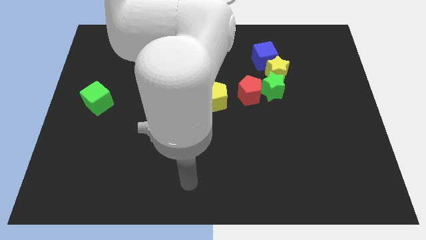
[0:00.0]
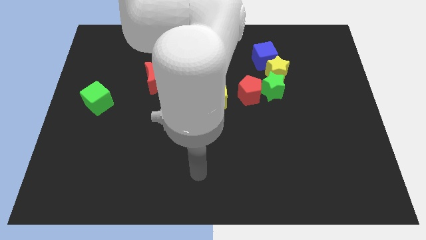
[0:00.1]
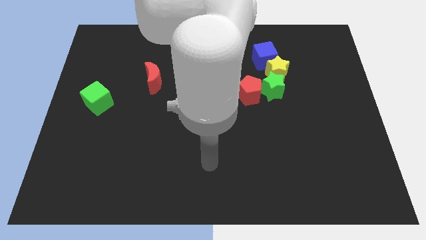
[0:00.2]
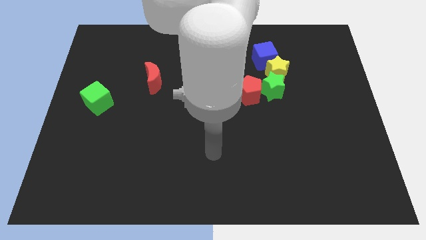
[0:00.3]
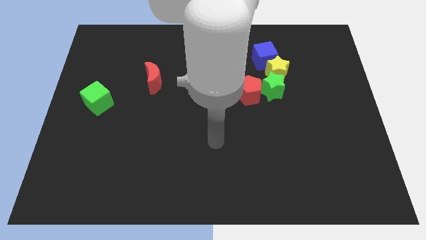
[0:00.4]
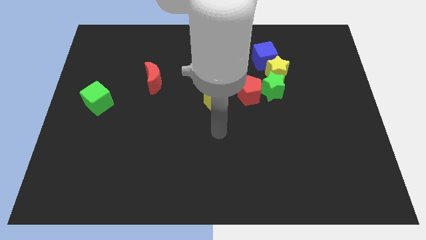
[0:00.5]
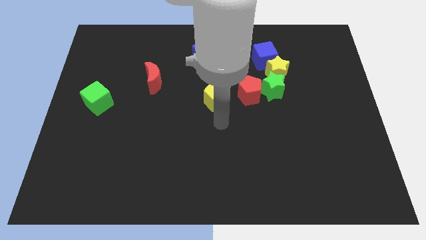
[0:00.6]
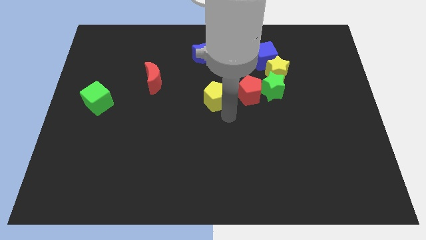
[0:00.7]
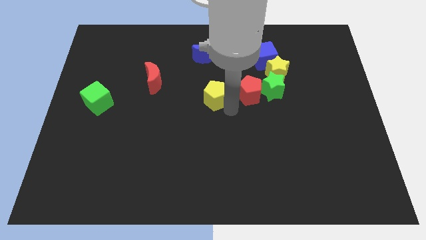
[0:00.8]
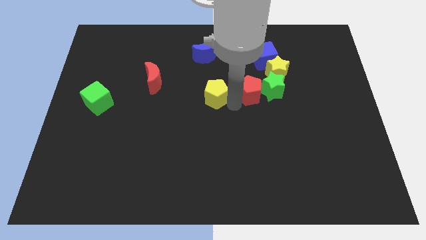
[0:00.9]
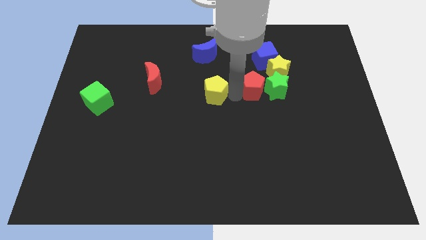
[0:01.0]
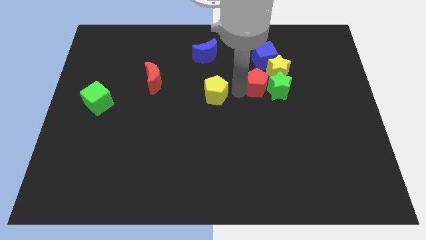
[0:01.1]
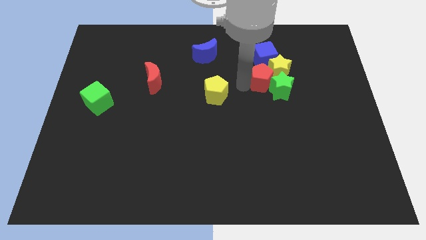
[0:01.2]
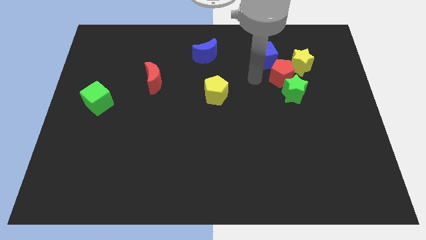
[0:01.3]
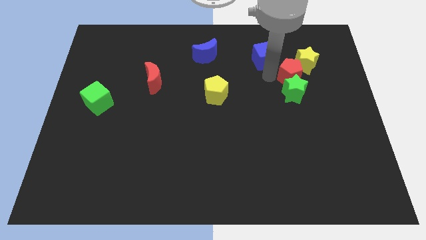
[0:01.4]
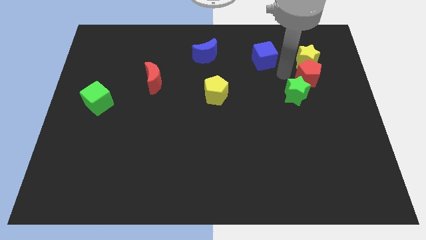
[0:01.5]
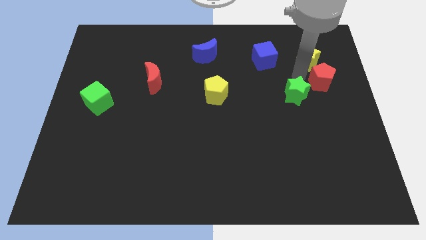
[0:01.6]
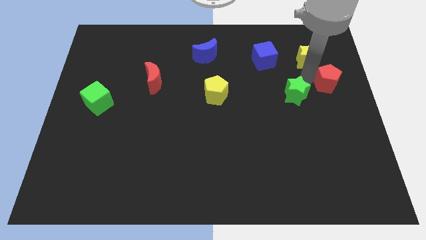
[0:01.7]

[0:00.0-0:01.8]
separate the green star from the red pentagon and yellow star

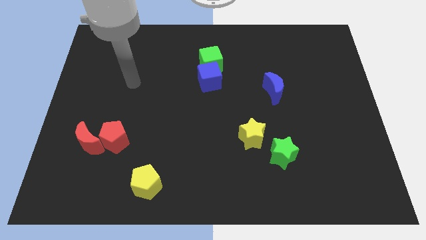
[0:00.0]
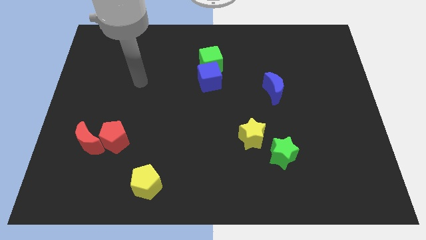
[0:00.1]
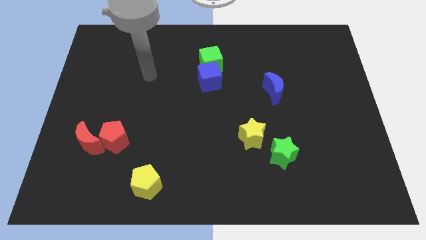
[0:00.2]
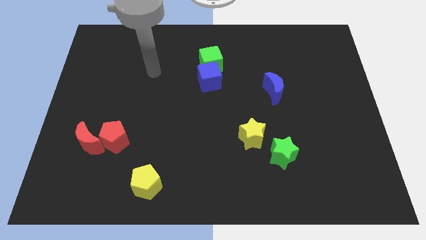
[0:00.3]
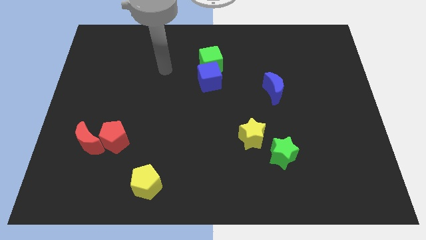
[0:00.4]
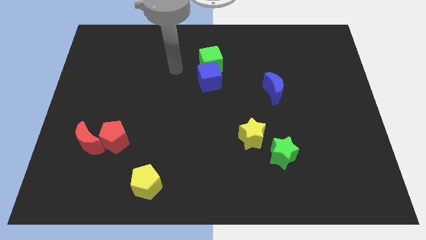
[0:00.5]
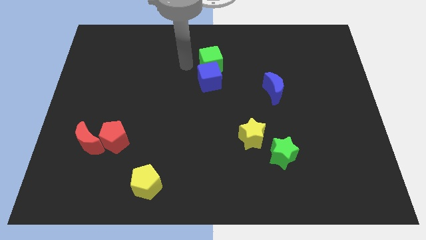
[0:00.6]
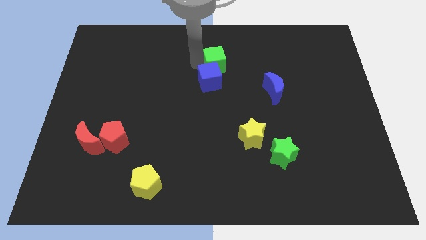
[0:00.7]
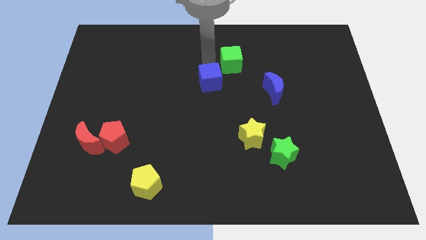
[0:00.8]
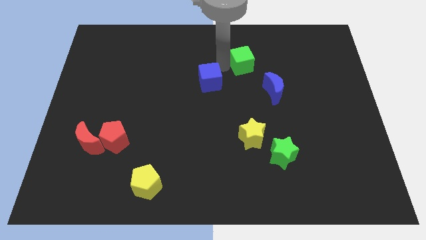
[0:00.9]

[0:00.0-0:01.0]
pull the blue cube apart from the green cube

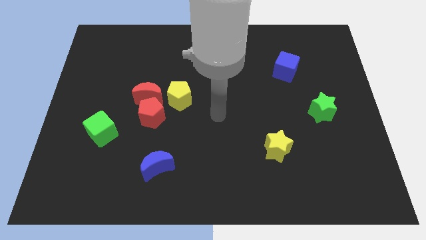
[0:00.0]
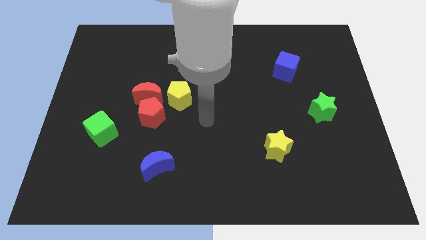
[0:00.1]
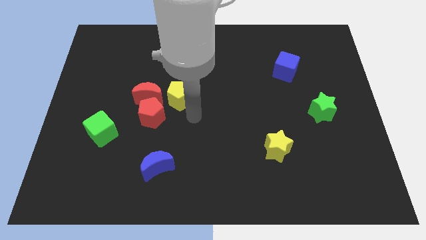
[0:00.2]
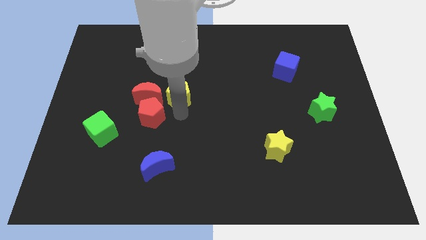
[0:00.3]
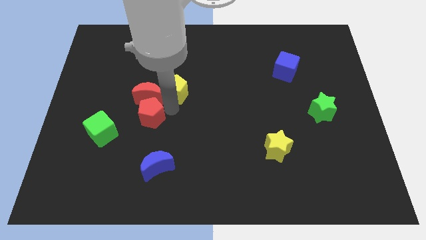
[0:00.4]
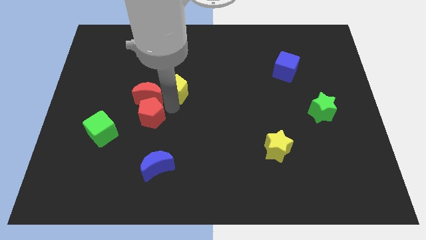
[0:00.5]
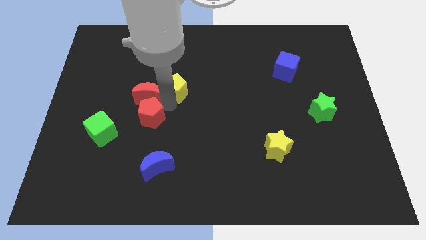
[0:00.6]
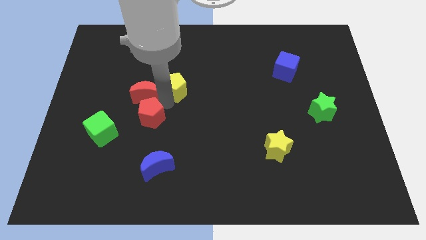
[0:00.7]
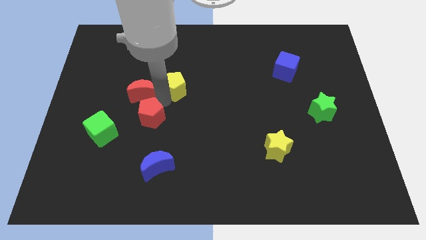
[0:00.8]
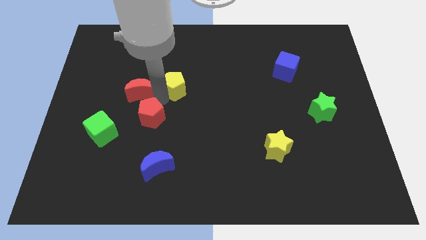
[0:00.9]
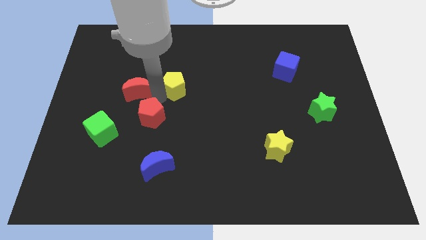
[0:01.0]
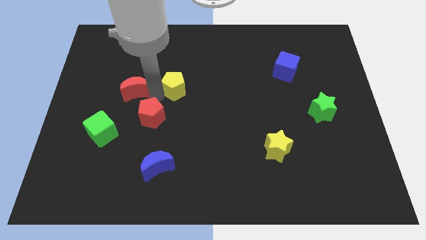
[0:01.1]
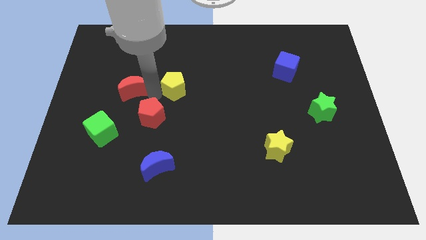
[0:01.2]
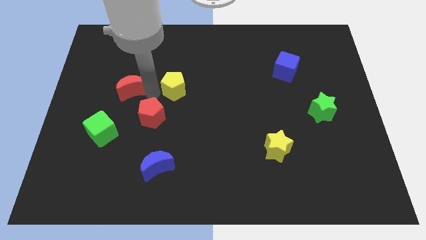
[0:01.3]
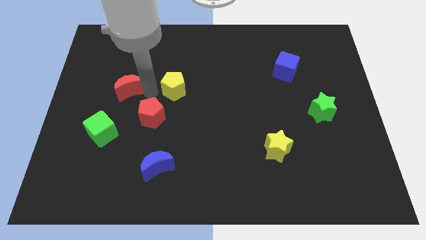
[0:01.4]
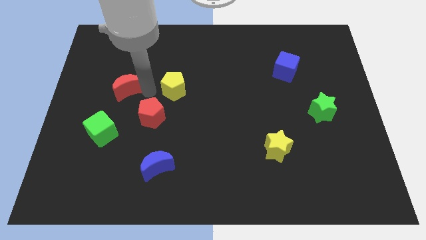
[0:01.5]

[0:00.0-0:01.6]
move the red moon away from the red pentagon and yellow pentagon

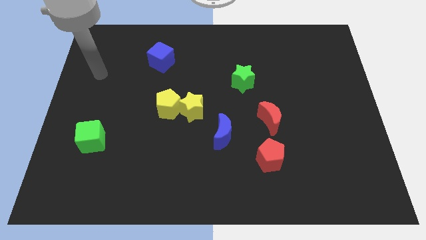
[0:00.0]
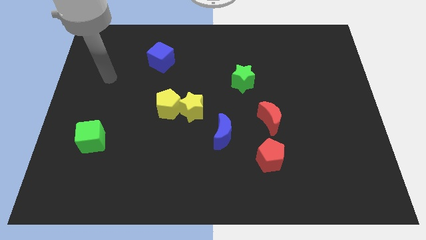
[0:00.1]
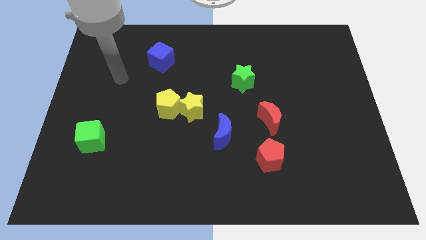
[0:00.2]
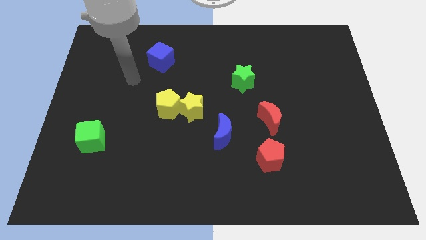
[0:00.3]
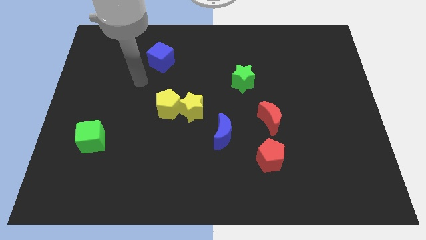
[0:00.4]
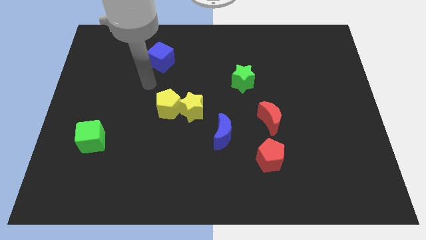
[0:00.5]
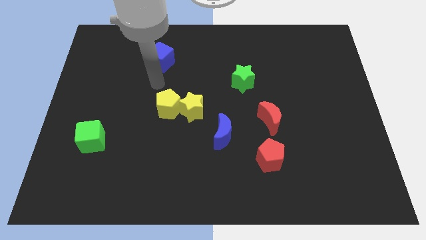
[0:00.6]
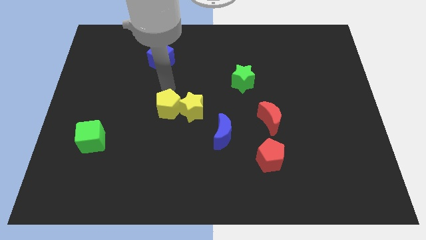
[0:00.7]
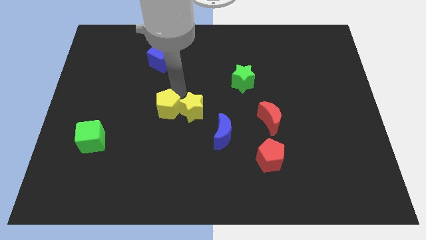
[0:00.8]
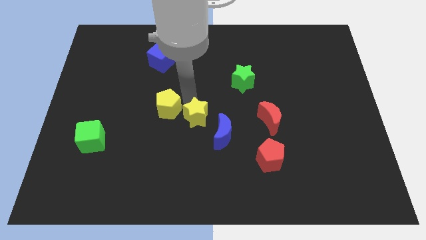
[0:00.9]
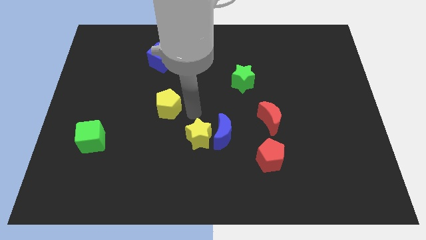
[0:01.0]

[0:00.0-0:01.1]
pull the yellow pentagon apart from the yellow star

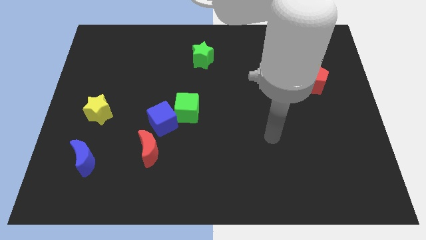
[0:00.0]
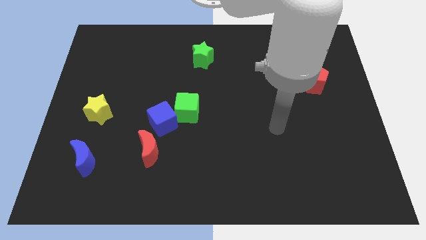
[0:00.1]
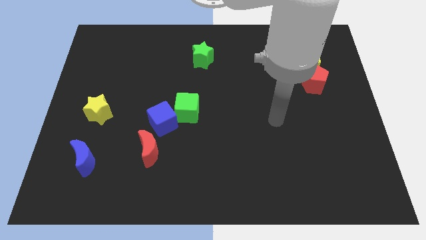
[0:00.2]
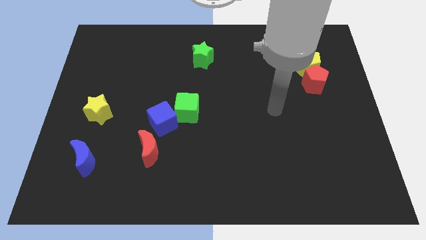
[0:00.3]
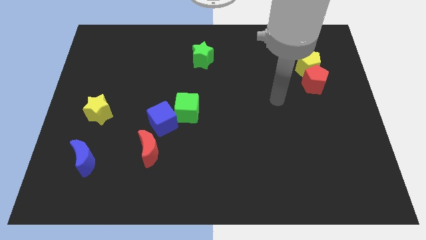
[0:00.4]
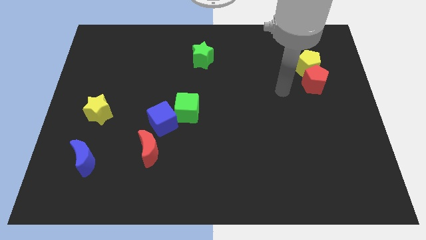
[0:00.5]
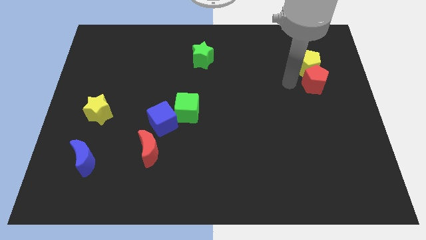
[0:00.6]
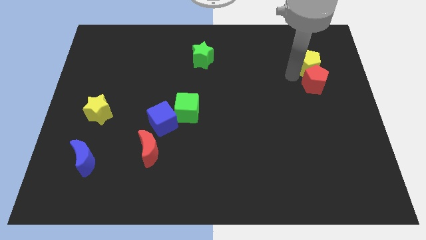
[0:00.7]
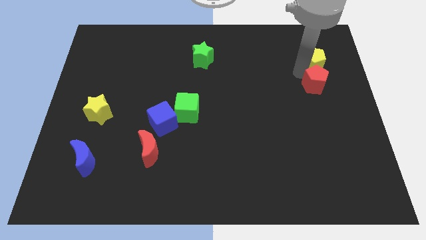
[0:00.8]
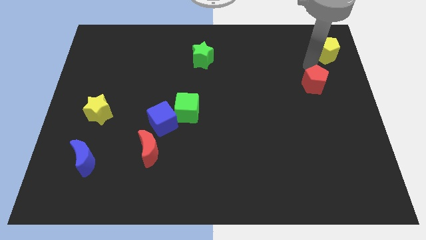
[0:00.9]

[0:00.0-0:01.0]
separate the red pentagon from the yellow pentagon

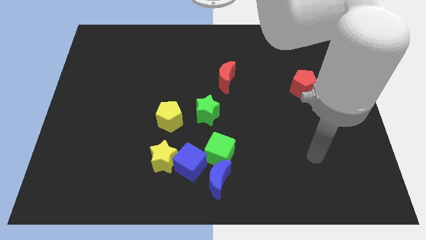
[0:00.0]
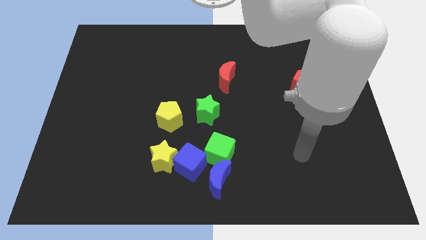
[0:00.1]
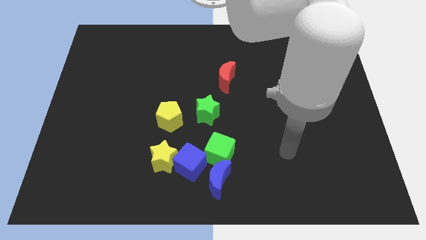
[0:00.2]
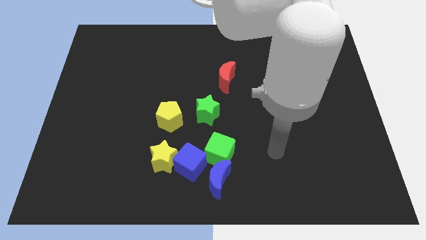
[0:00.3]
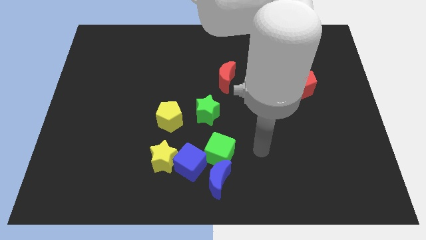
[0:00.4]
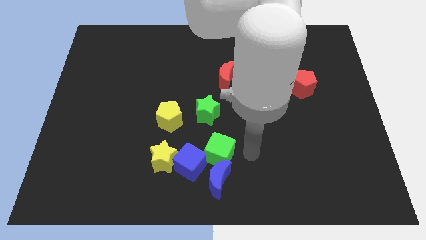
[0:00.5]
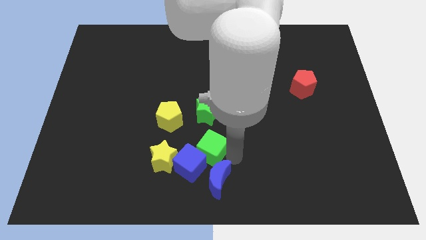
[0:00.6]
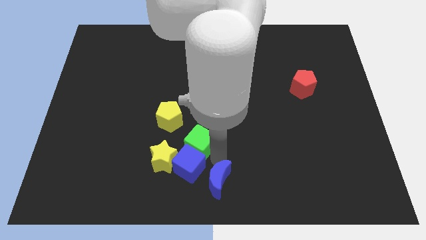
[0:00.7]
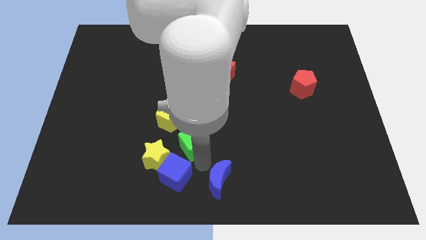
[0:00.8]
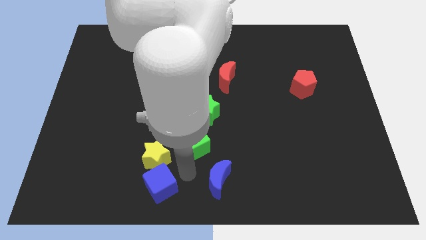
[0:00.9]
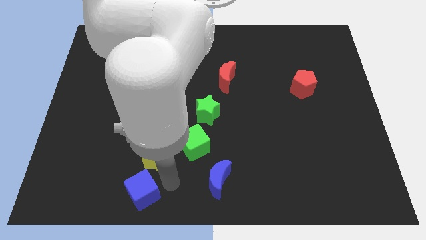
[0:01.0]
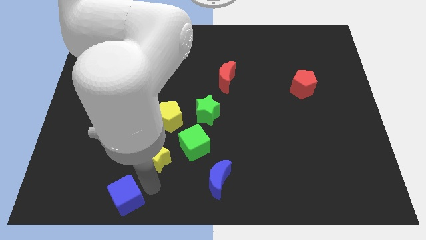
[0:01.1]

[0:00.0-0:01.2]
separate the yellow star from the blue cube

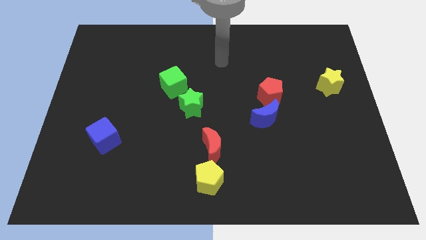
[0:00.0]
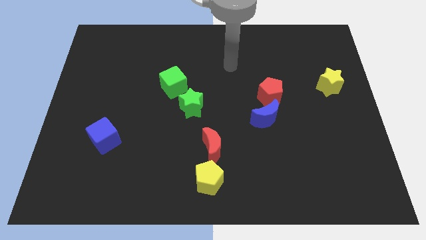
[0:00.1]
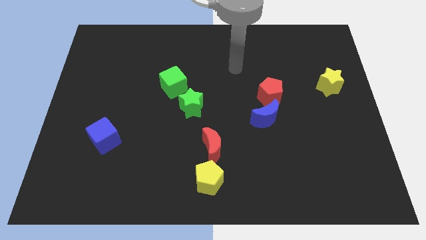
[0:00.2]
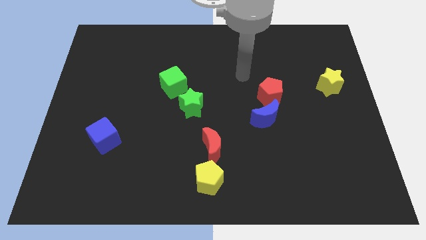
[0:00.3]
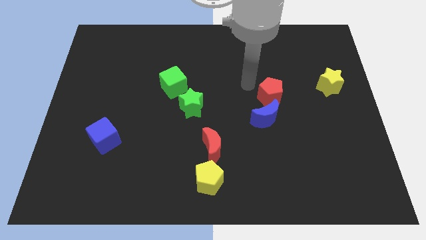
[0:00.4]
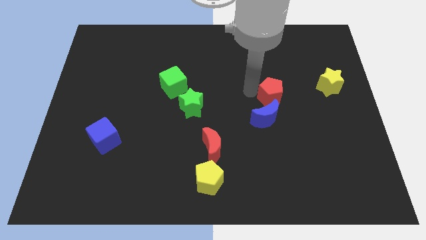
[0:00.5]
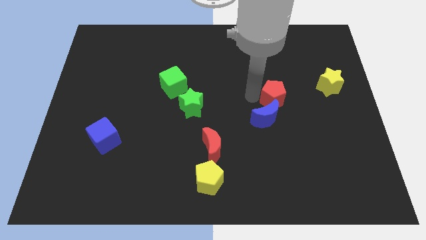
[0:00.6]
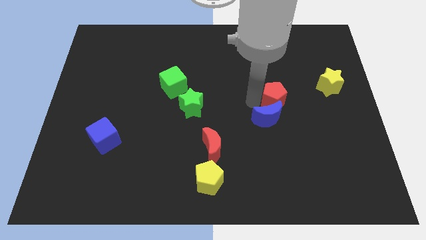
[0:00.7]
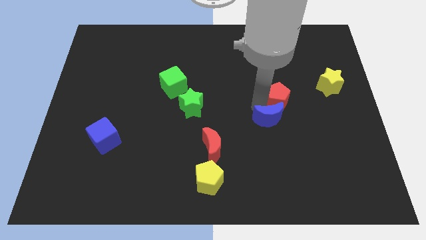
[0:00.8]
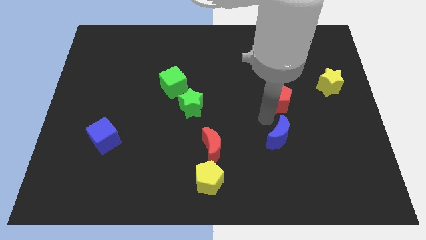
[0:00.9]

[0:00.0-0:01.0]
move the red pentagon away from the blue moon

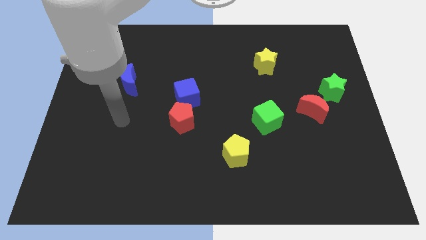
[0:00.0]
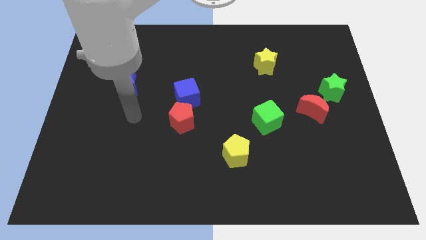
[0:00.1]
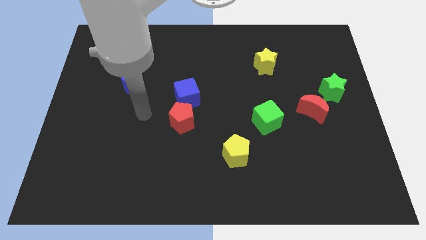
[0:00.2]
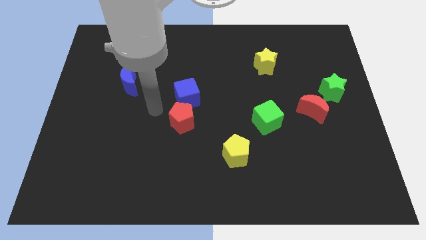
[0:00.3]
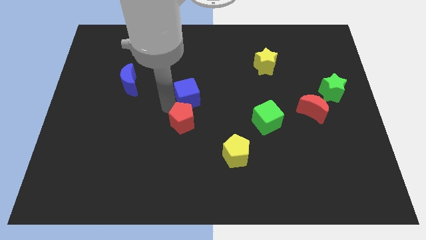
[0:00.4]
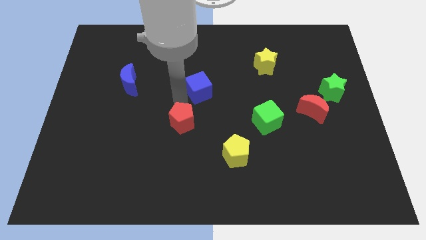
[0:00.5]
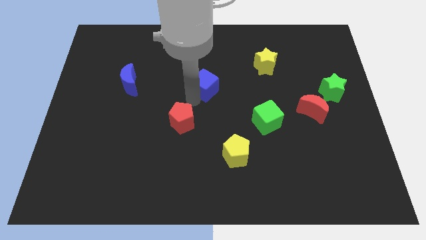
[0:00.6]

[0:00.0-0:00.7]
move the red pentagon away from the blue cube
